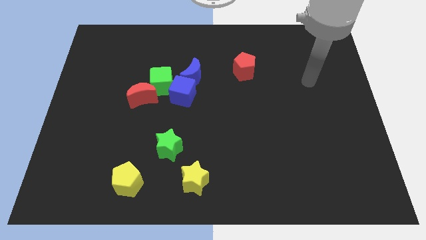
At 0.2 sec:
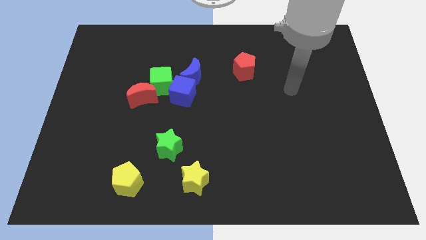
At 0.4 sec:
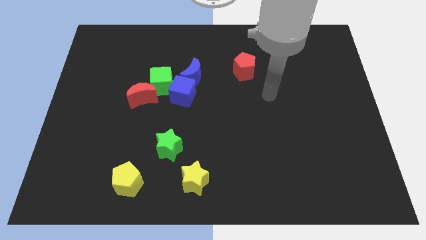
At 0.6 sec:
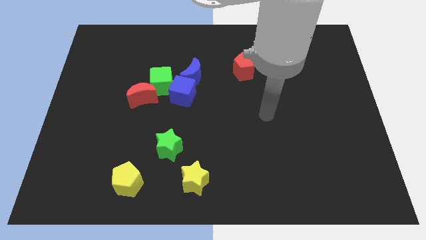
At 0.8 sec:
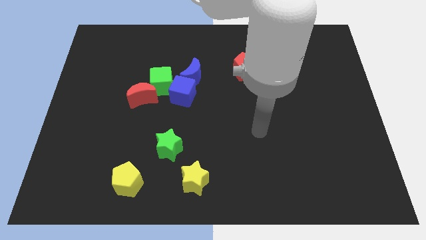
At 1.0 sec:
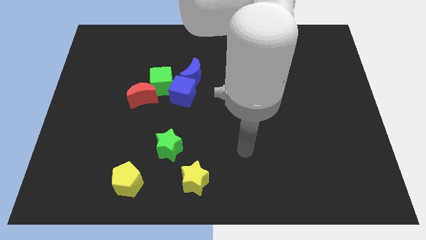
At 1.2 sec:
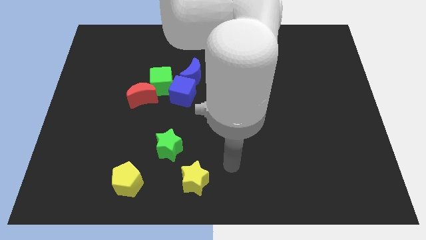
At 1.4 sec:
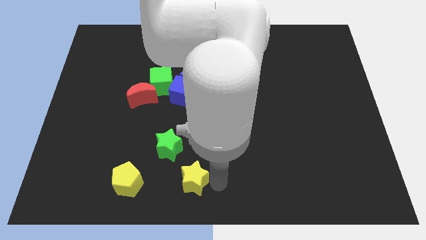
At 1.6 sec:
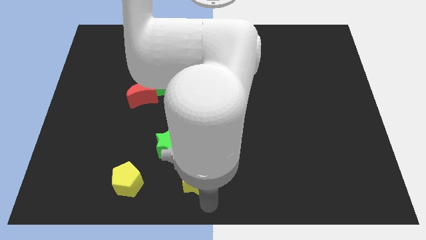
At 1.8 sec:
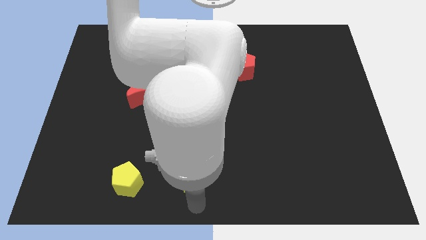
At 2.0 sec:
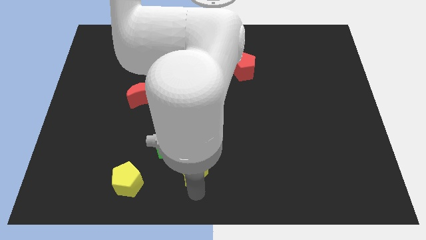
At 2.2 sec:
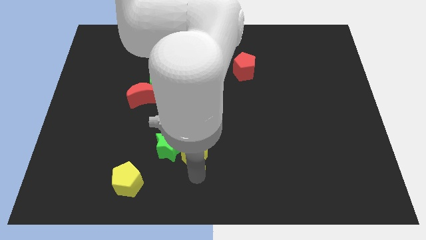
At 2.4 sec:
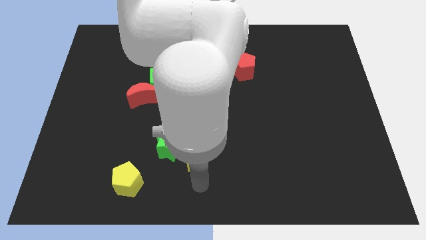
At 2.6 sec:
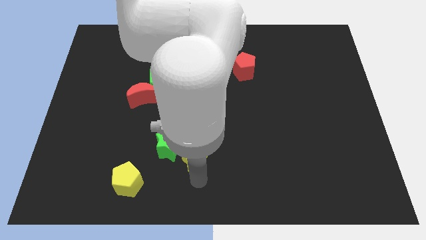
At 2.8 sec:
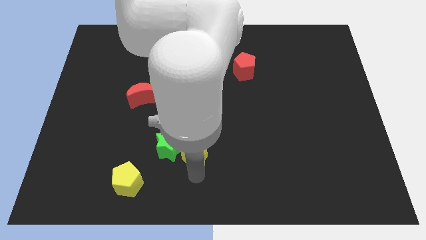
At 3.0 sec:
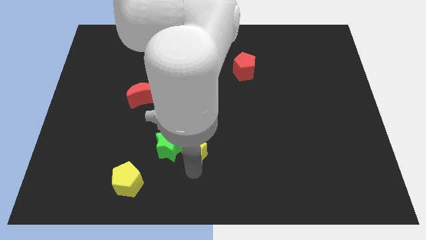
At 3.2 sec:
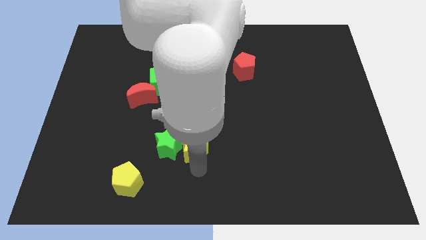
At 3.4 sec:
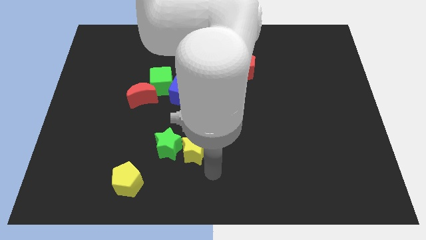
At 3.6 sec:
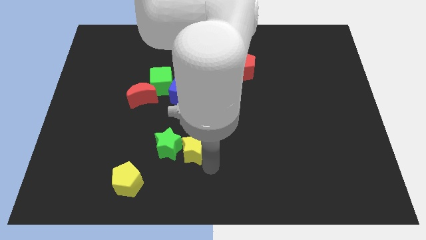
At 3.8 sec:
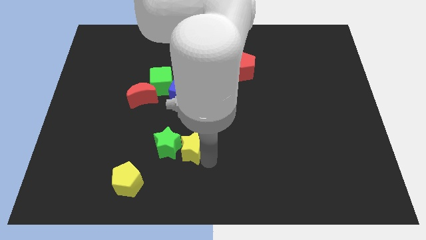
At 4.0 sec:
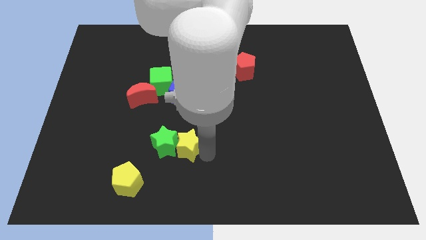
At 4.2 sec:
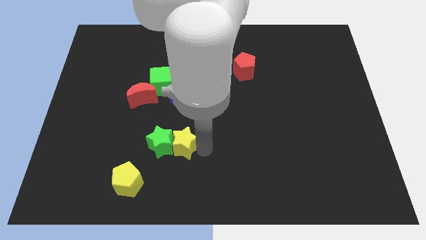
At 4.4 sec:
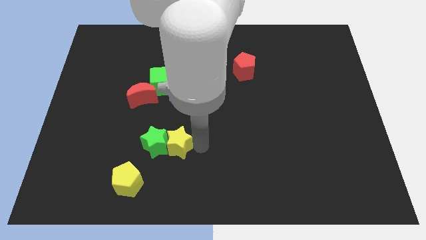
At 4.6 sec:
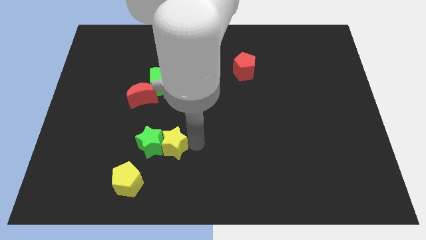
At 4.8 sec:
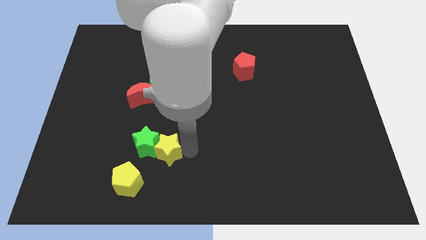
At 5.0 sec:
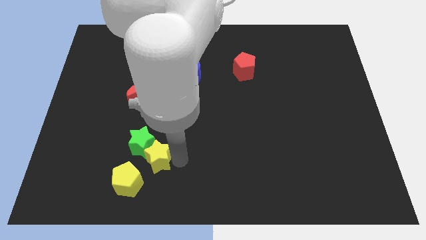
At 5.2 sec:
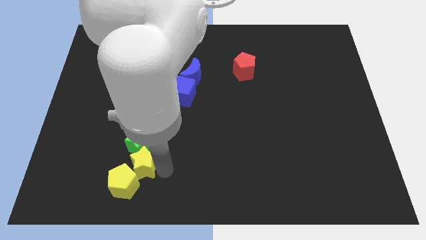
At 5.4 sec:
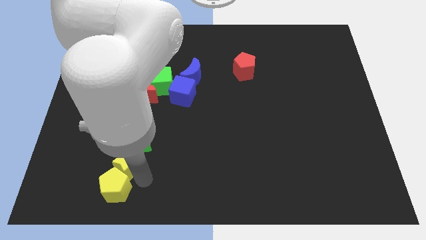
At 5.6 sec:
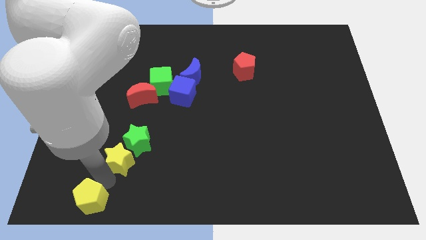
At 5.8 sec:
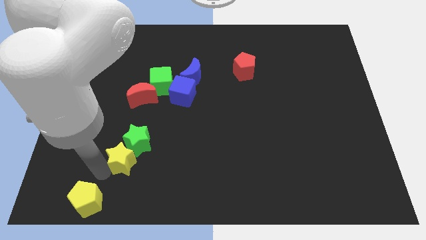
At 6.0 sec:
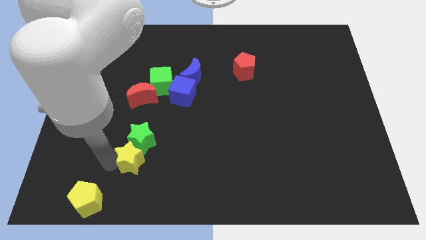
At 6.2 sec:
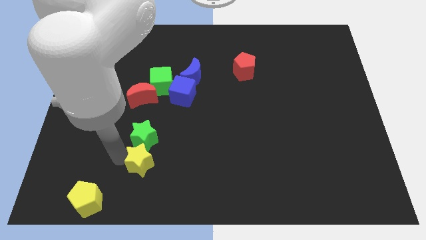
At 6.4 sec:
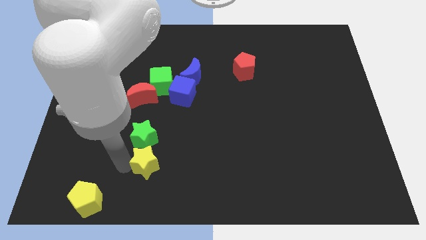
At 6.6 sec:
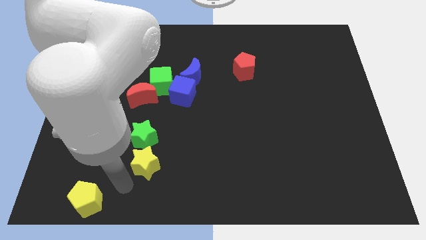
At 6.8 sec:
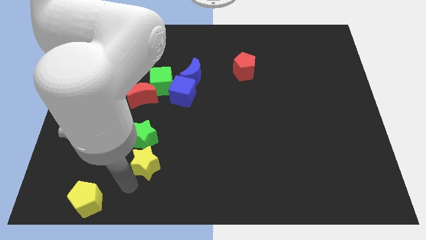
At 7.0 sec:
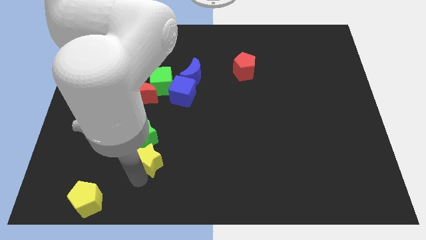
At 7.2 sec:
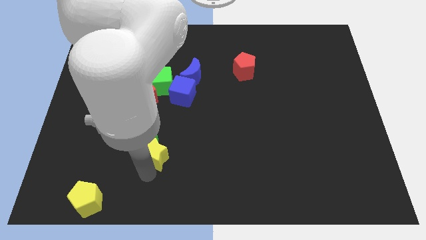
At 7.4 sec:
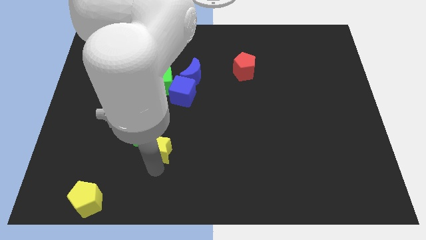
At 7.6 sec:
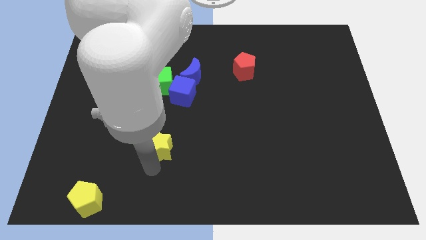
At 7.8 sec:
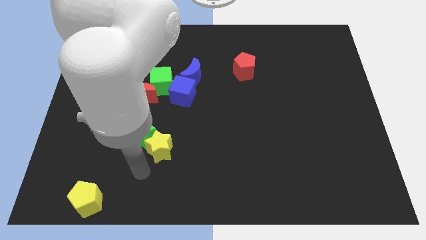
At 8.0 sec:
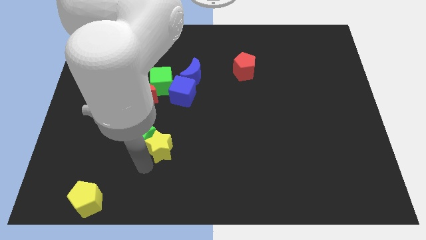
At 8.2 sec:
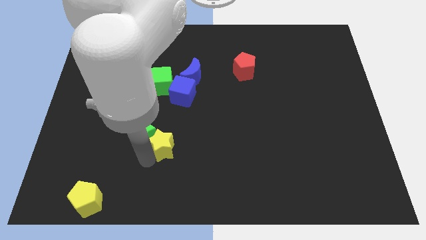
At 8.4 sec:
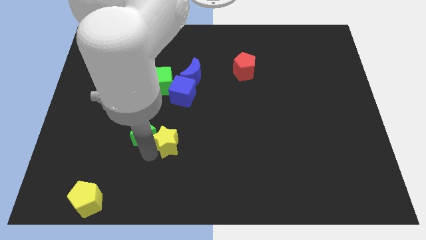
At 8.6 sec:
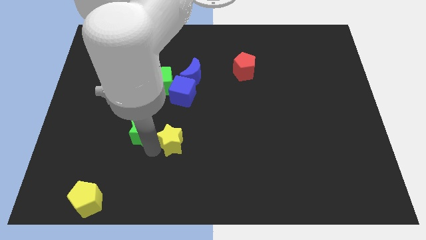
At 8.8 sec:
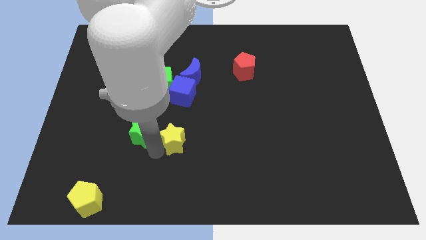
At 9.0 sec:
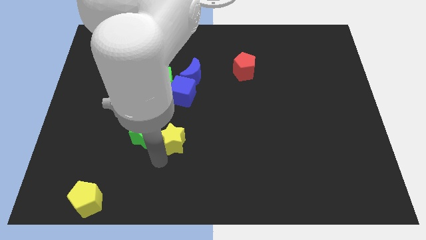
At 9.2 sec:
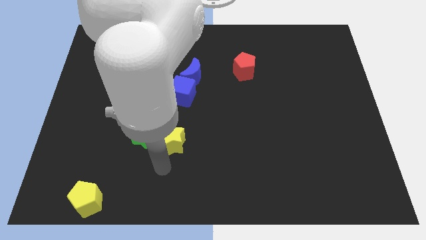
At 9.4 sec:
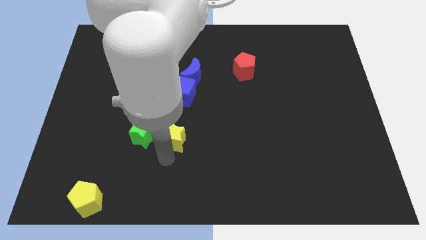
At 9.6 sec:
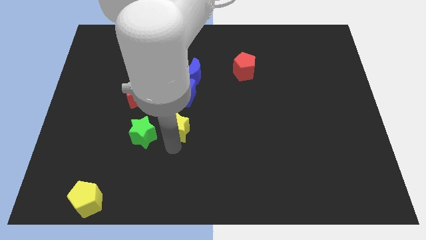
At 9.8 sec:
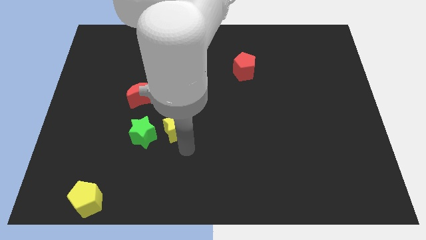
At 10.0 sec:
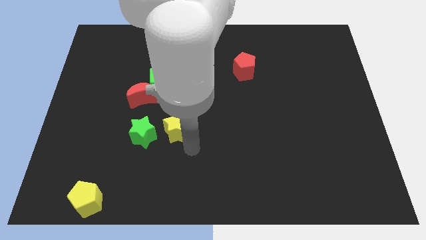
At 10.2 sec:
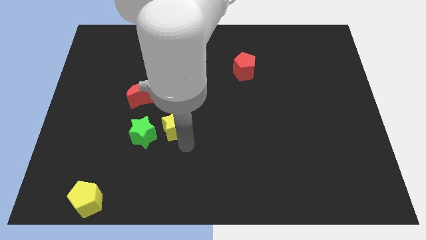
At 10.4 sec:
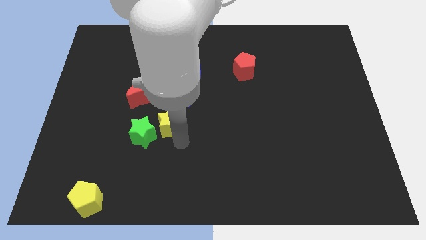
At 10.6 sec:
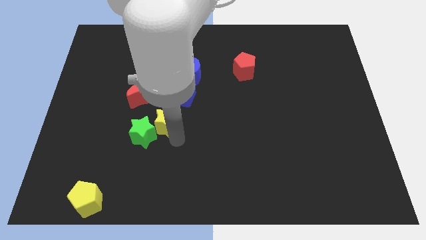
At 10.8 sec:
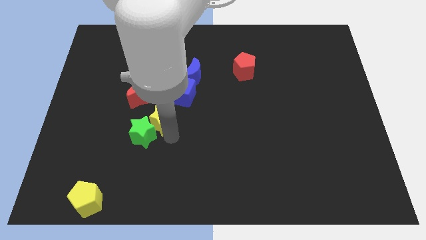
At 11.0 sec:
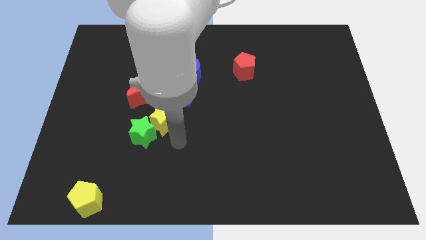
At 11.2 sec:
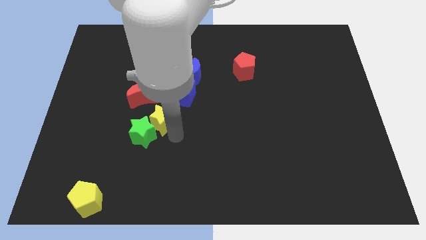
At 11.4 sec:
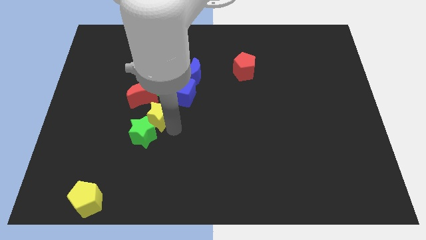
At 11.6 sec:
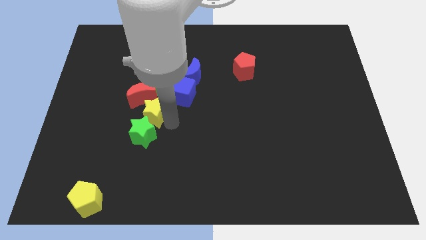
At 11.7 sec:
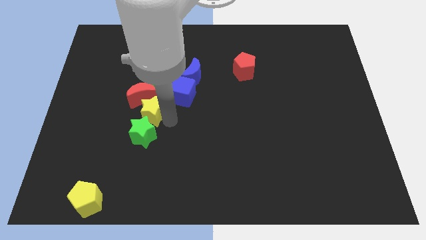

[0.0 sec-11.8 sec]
slide the yellow star close to the red moon
